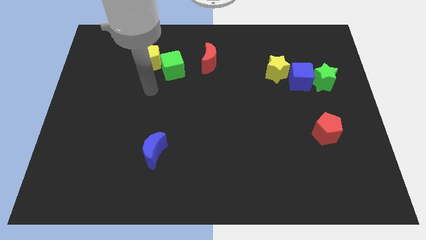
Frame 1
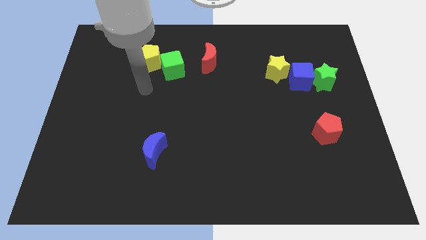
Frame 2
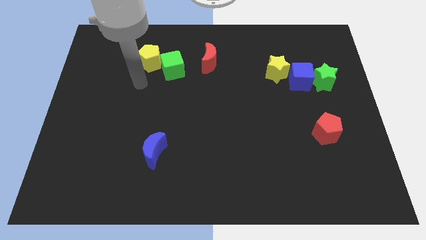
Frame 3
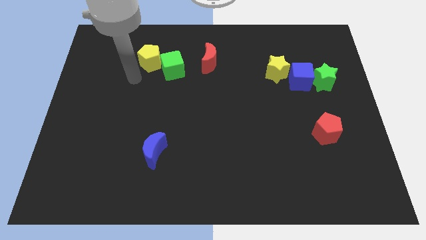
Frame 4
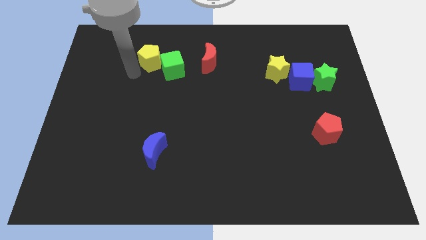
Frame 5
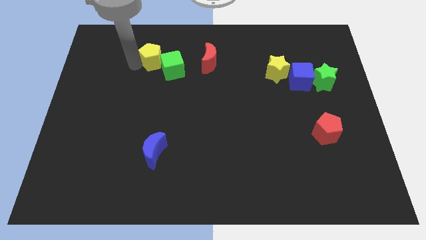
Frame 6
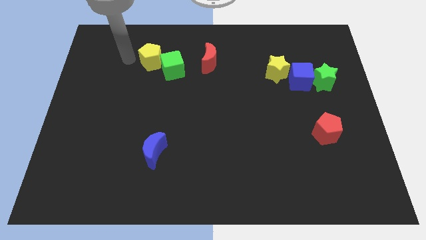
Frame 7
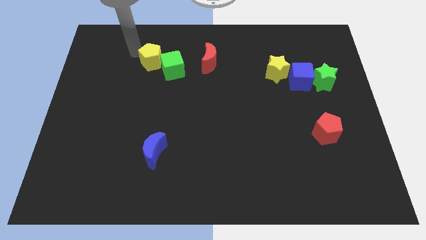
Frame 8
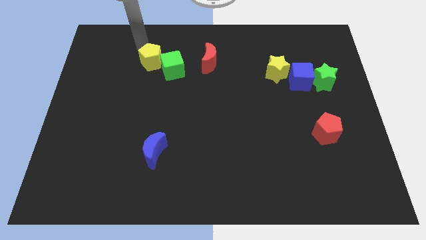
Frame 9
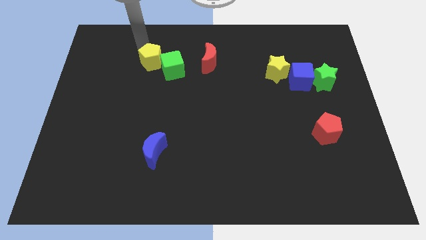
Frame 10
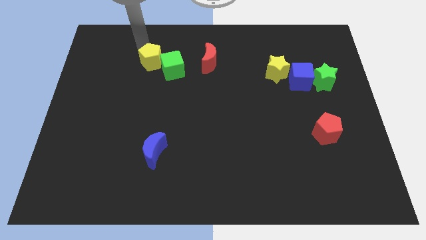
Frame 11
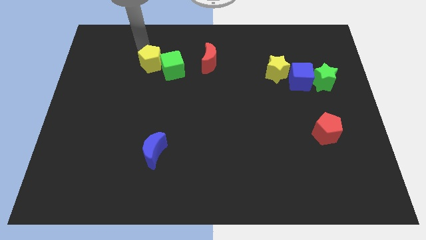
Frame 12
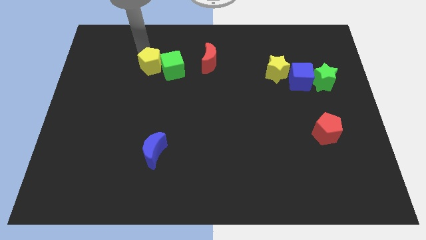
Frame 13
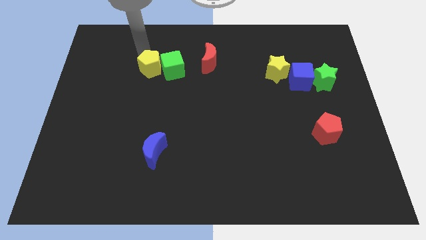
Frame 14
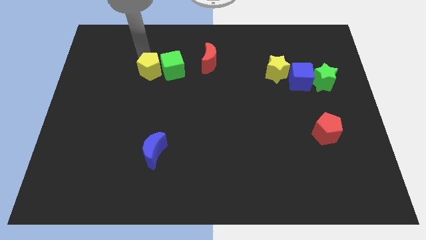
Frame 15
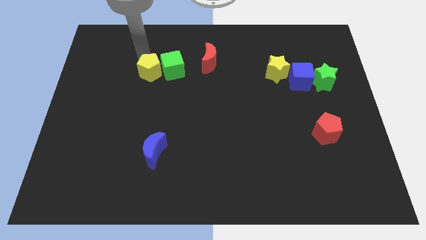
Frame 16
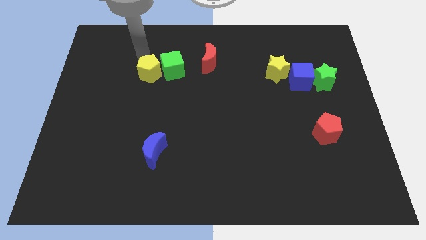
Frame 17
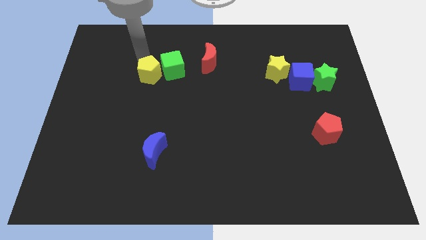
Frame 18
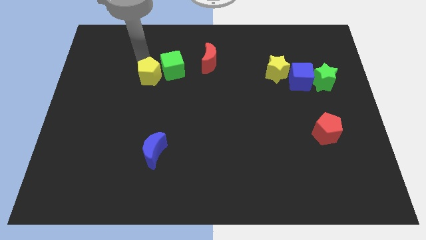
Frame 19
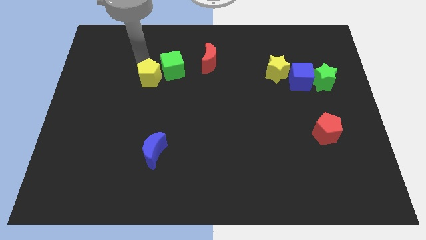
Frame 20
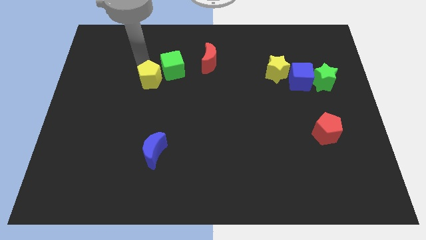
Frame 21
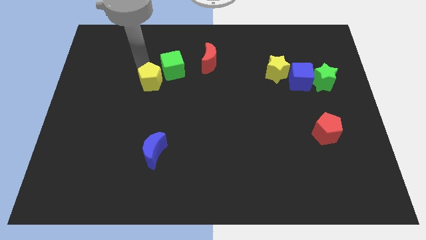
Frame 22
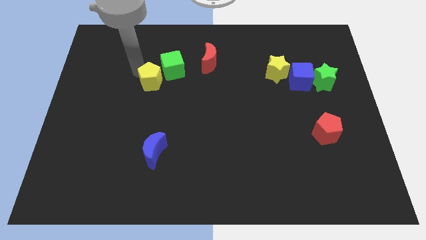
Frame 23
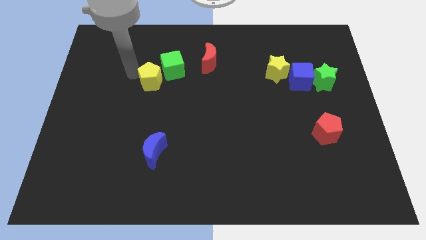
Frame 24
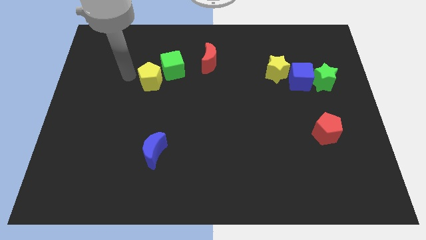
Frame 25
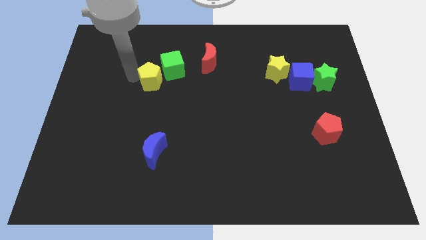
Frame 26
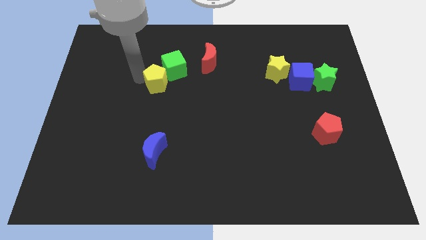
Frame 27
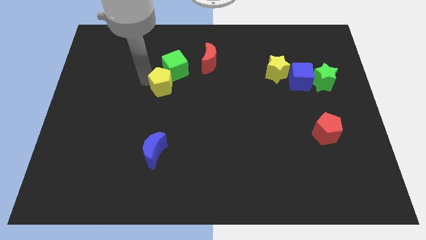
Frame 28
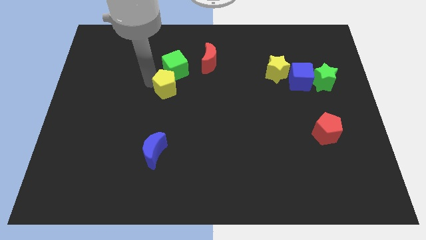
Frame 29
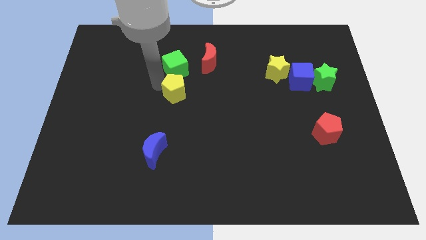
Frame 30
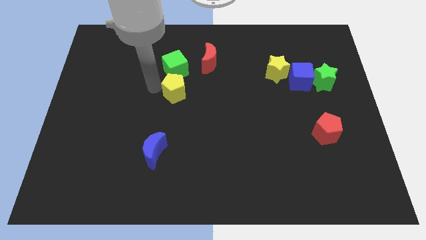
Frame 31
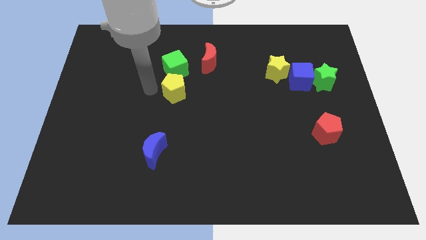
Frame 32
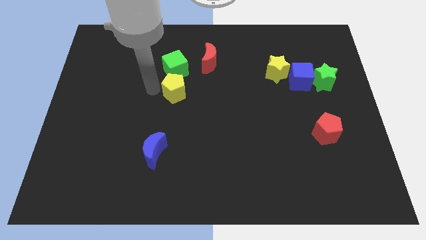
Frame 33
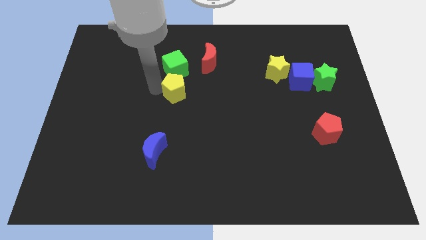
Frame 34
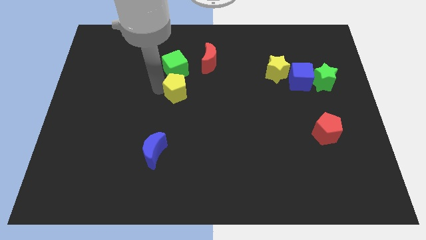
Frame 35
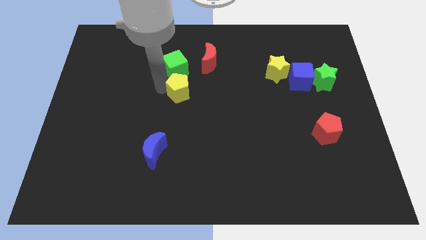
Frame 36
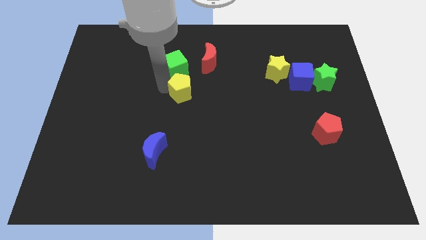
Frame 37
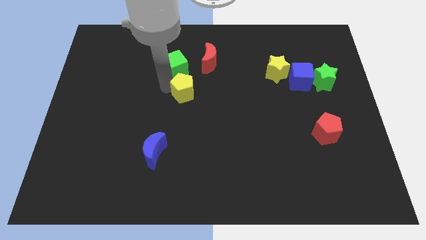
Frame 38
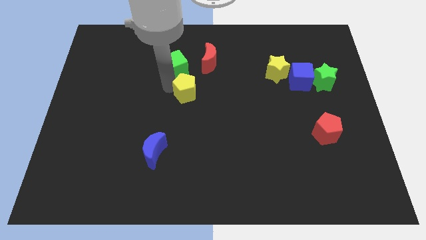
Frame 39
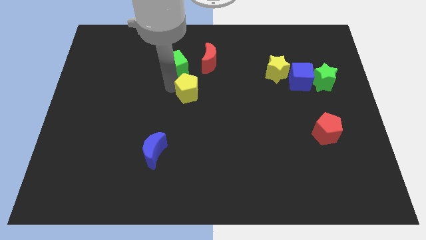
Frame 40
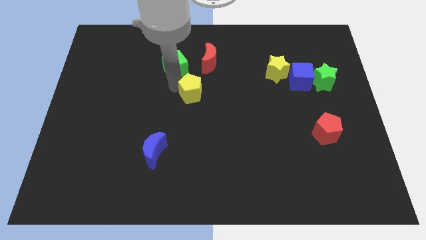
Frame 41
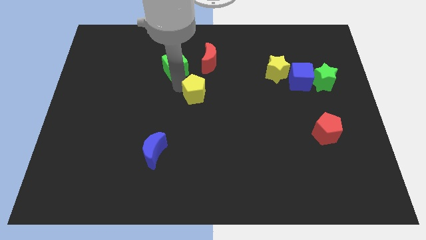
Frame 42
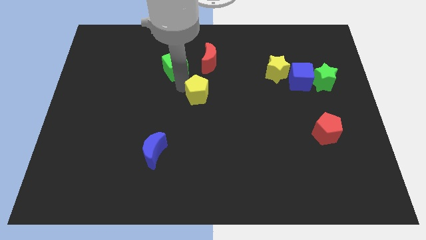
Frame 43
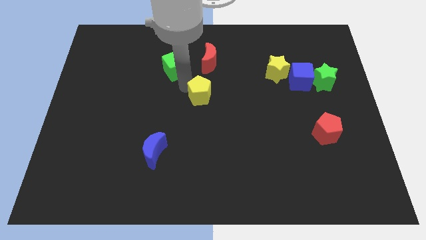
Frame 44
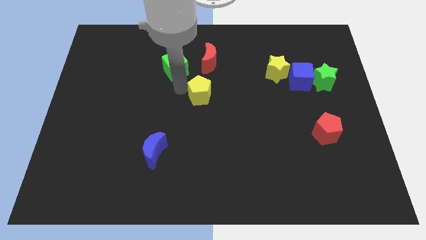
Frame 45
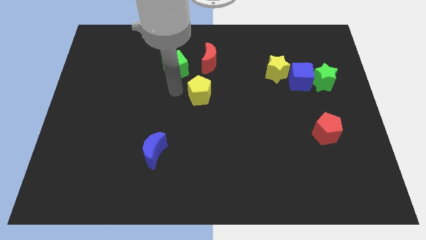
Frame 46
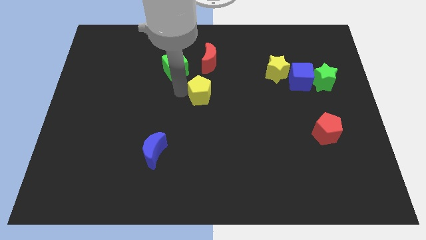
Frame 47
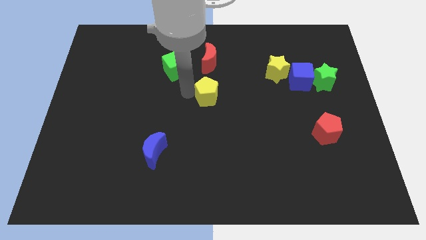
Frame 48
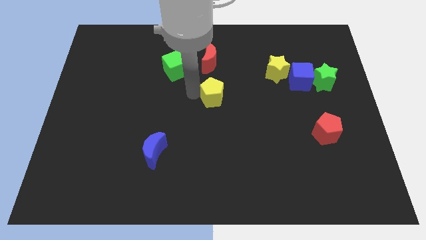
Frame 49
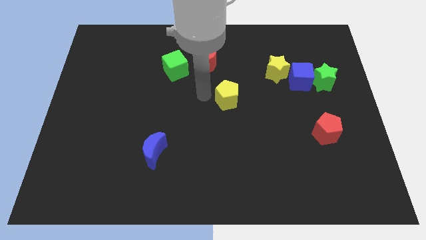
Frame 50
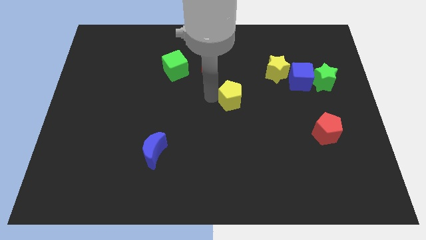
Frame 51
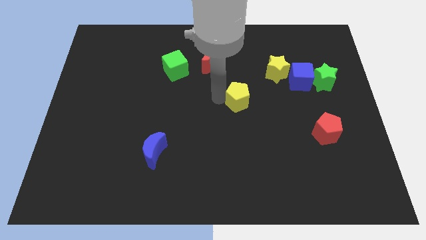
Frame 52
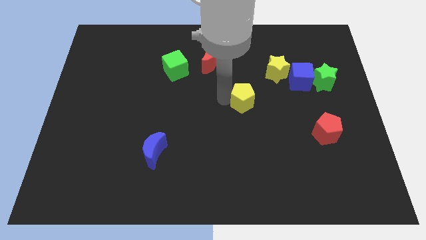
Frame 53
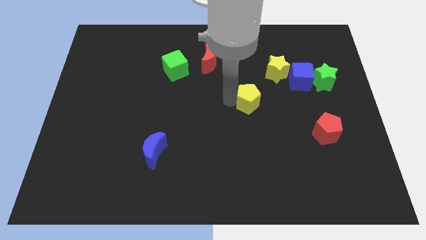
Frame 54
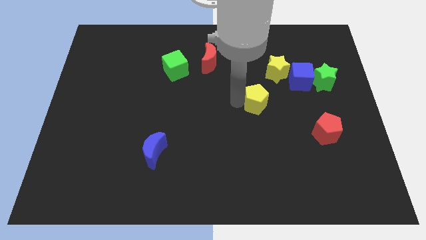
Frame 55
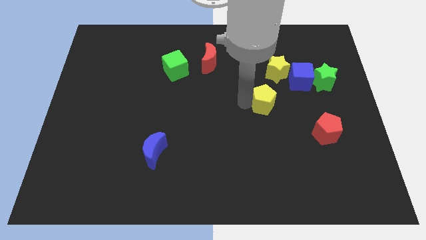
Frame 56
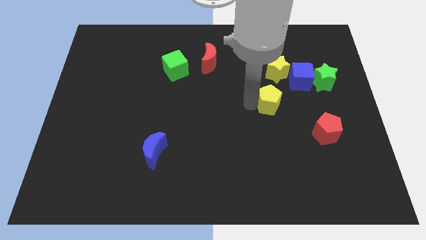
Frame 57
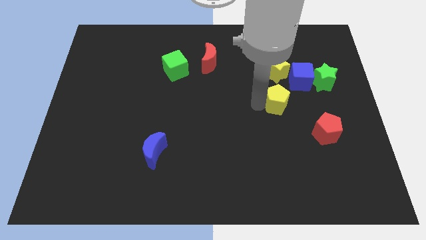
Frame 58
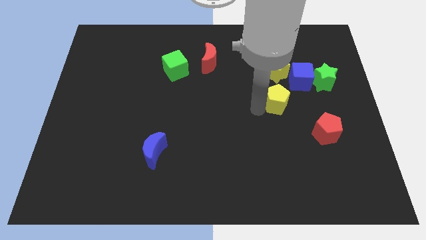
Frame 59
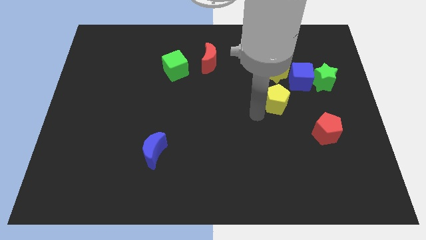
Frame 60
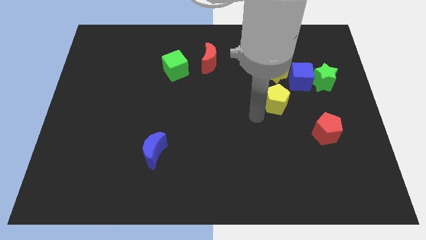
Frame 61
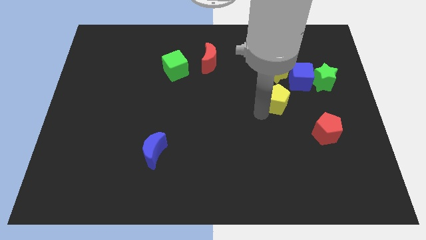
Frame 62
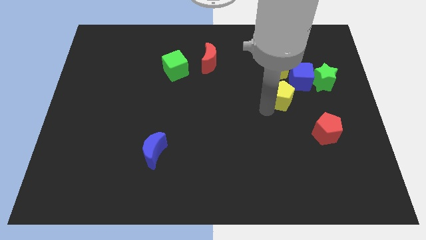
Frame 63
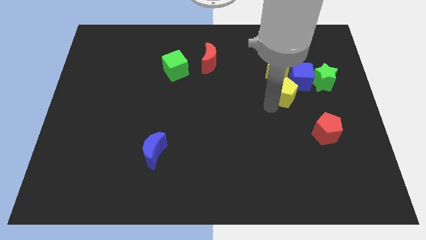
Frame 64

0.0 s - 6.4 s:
move the yellow pentagon diagonally down and to the right of the yellow star
